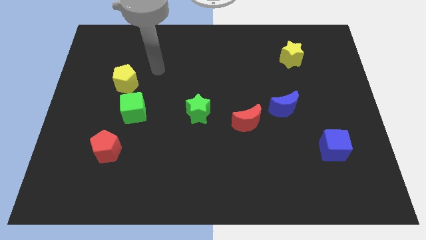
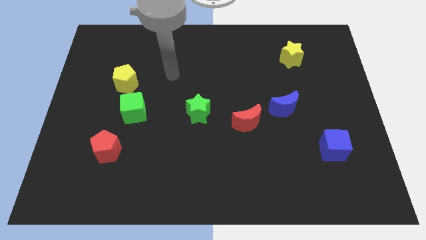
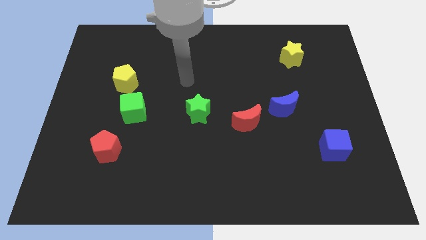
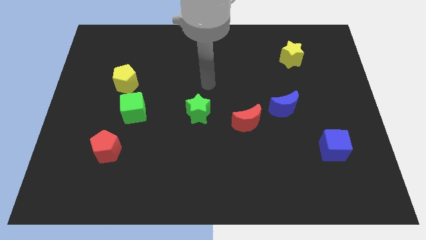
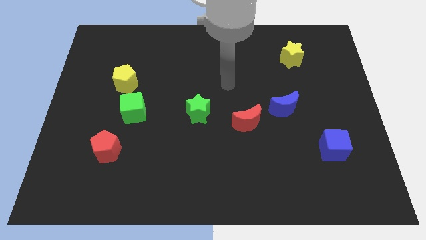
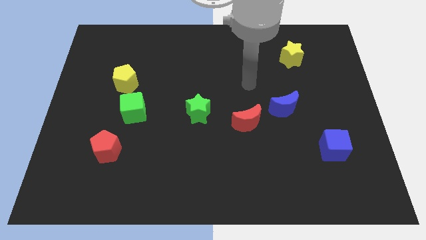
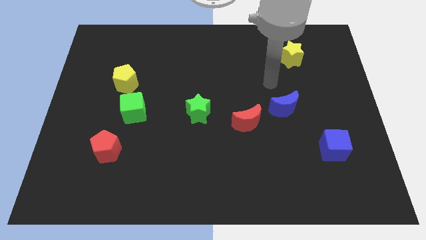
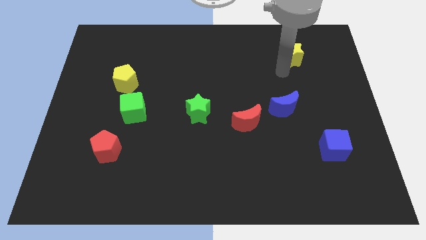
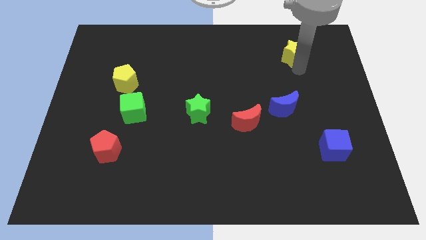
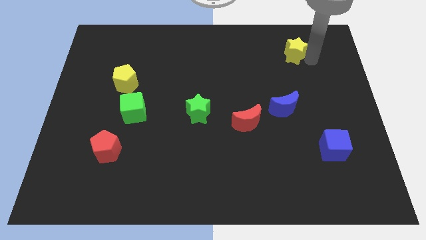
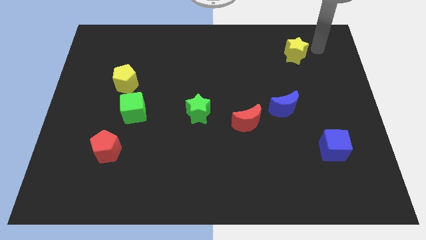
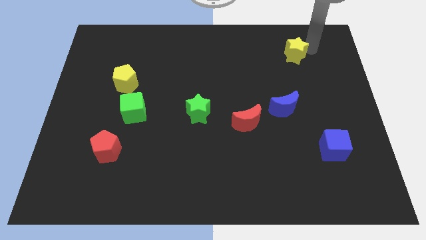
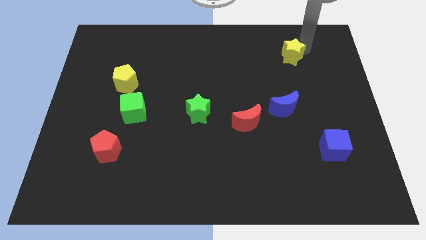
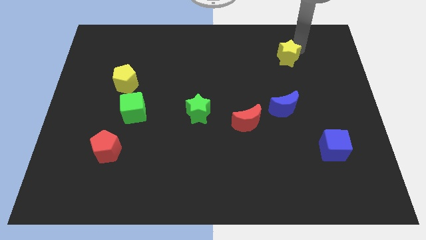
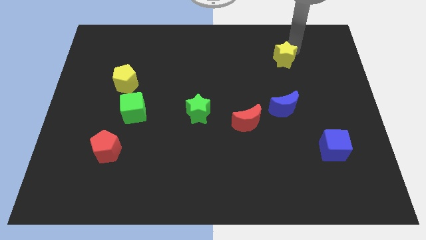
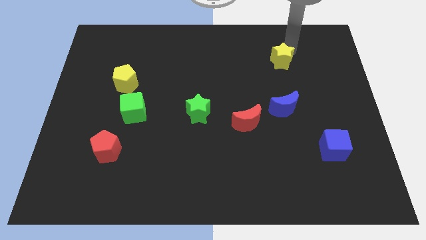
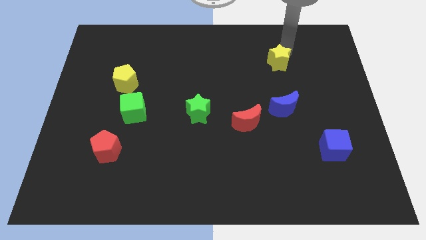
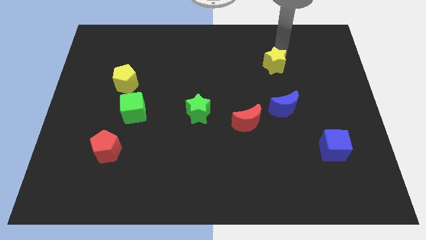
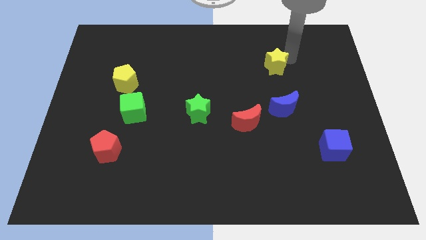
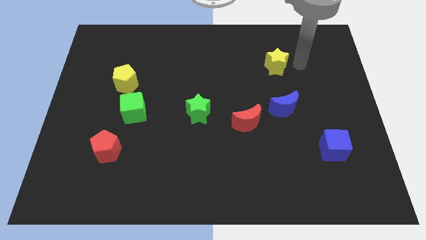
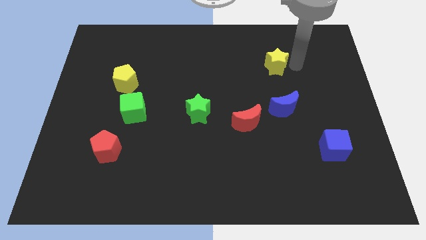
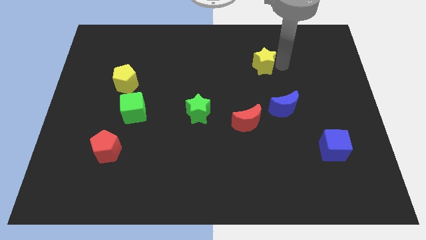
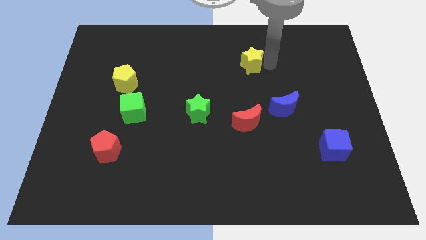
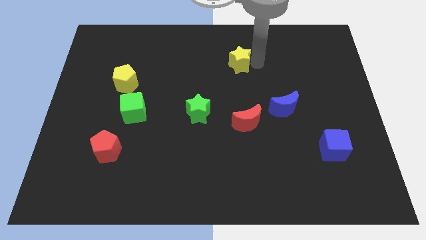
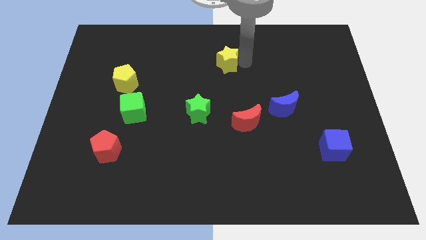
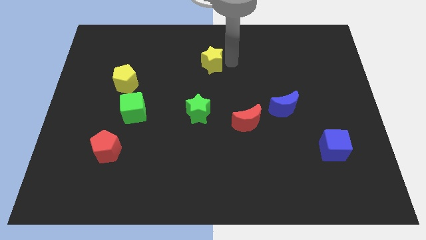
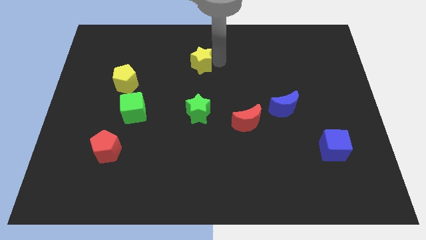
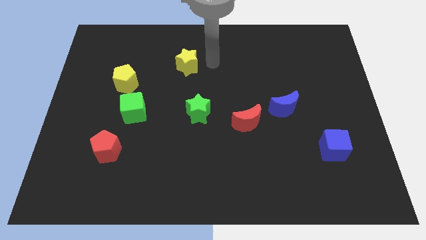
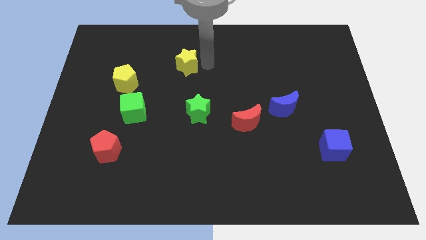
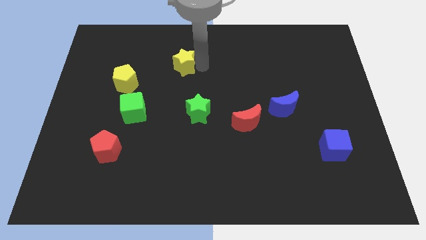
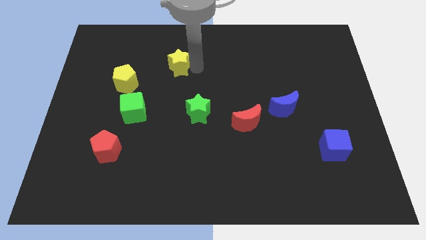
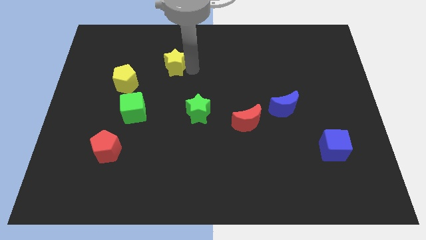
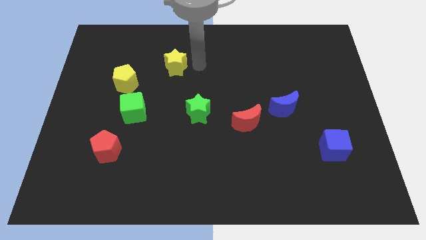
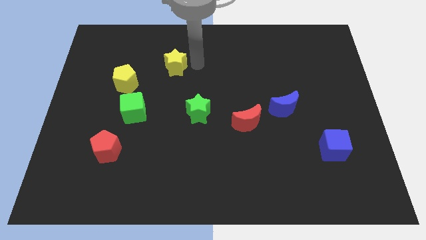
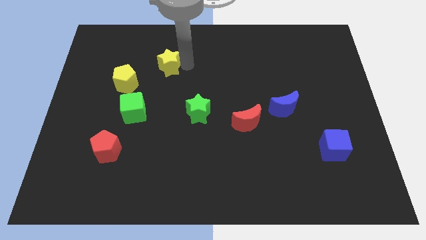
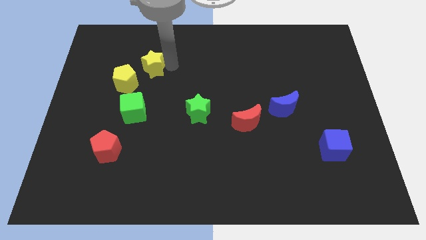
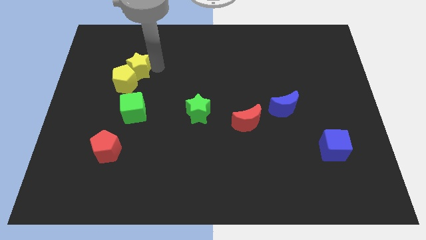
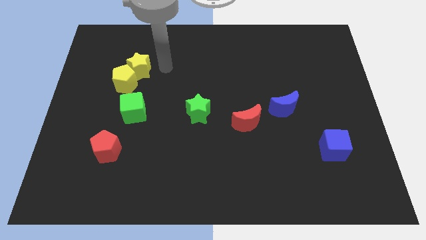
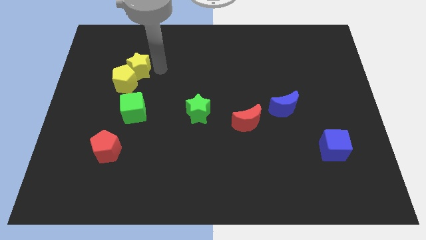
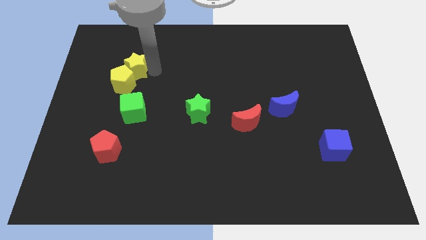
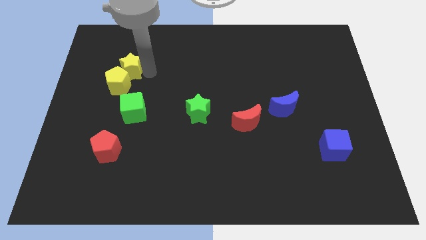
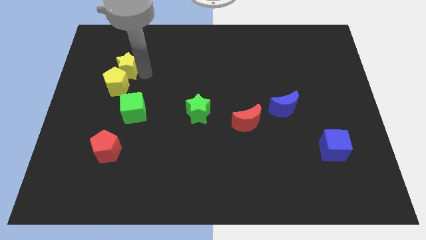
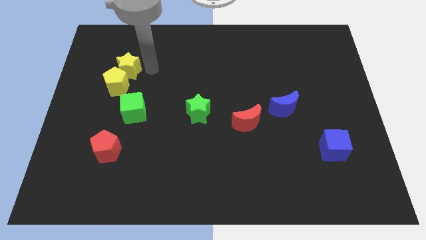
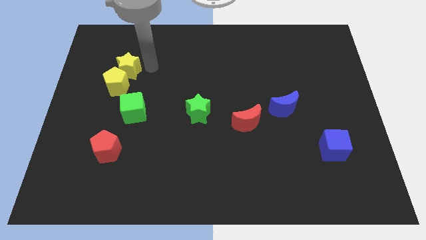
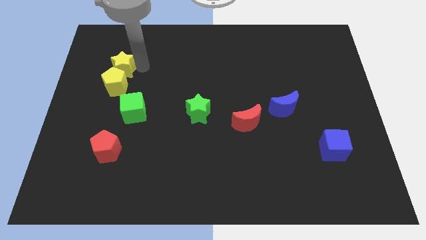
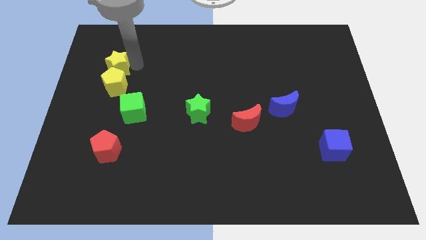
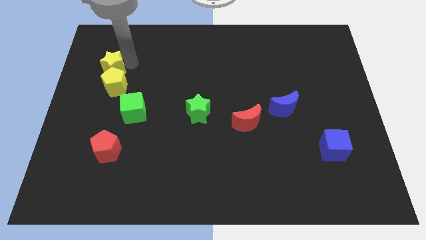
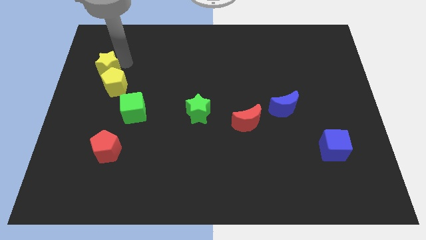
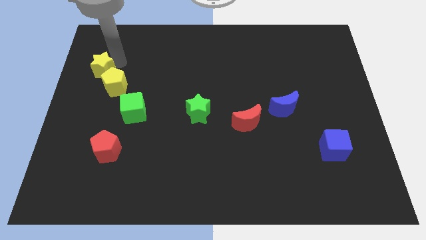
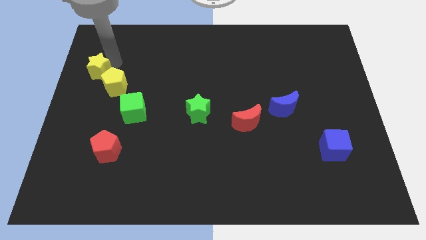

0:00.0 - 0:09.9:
put the yellow star to the left side

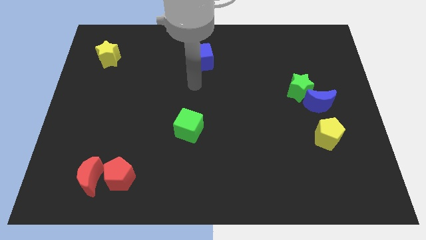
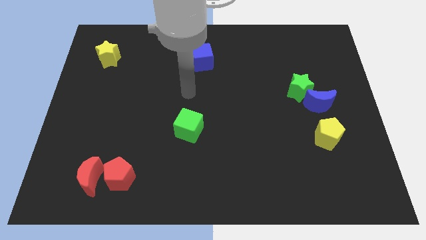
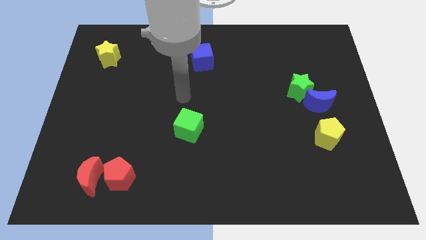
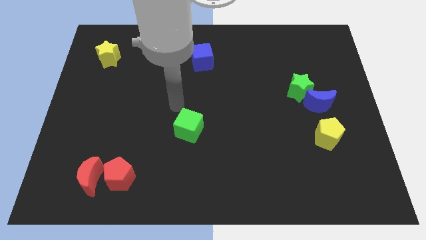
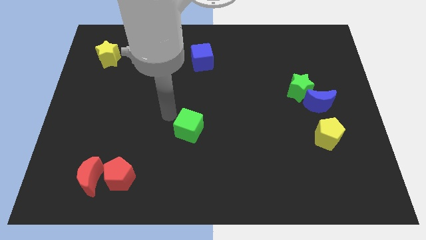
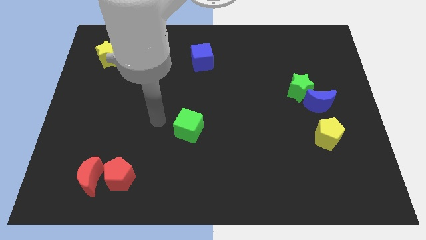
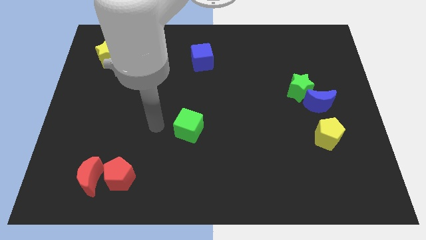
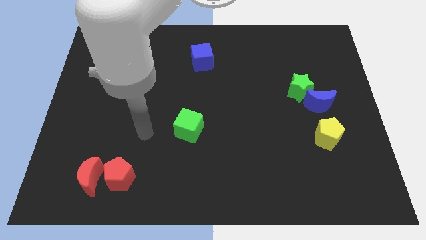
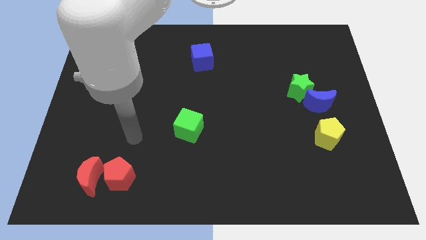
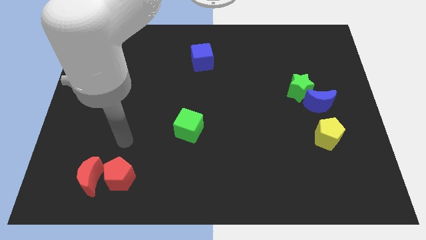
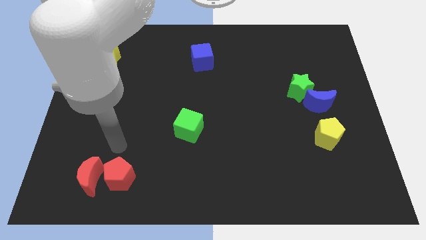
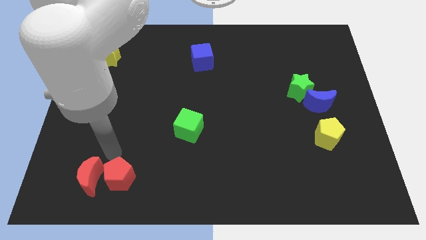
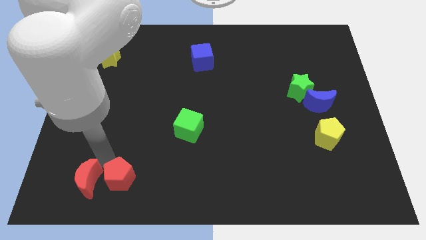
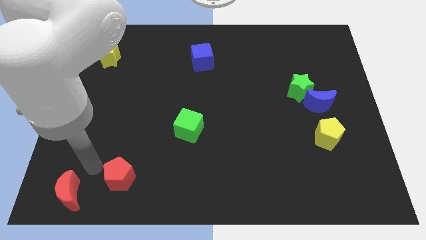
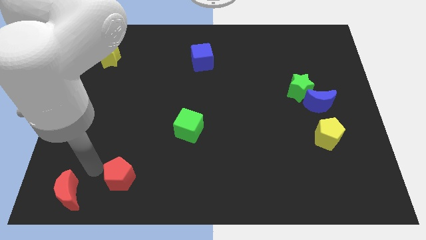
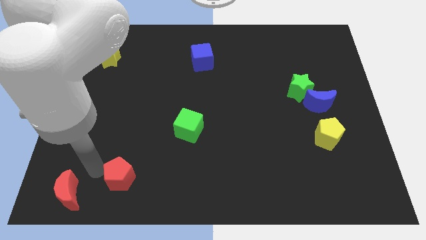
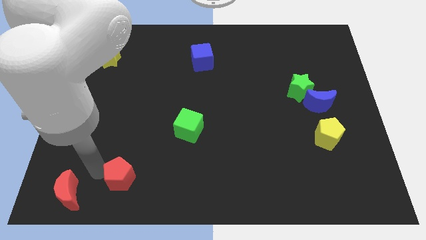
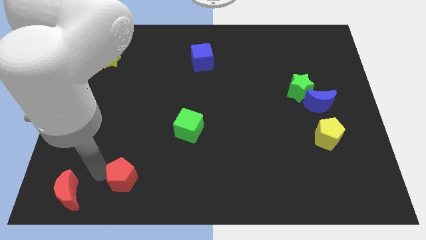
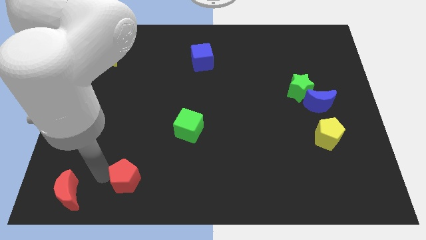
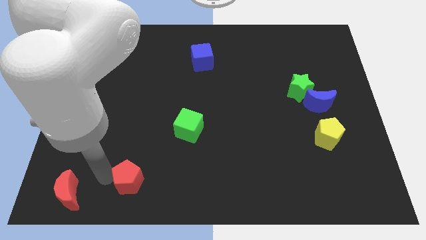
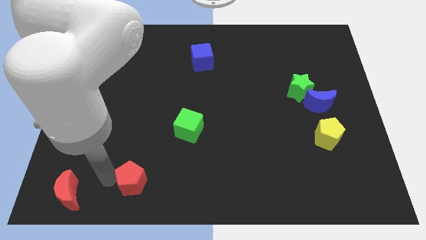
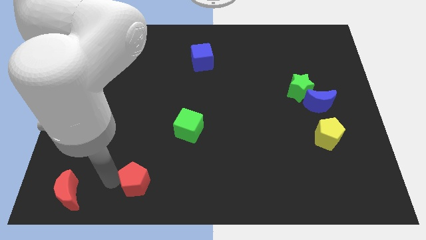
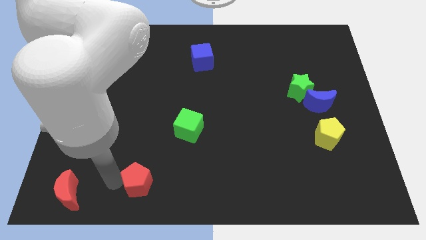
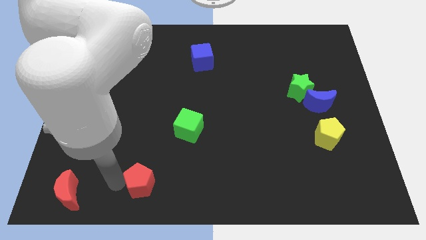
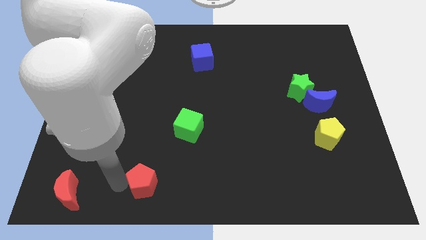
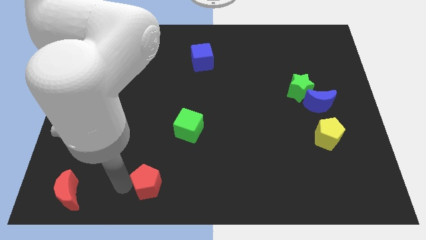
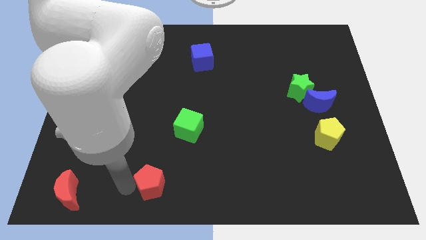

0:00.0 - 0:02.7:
slide the red pentagon to the bottom
